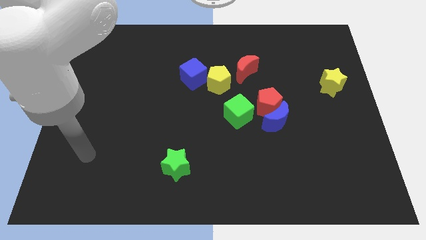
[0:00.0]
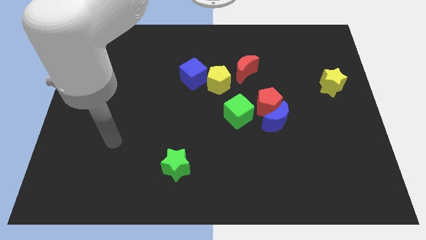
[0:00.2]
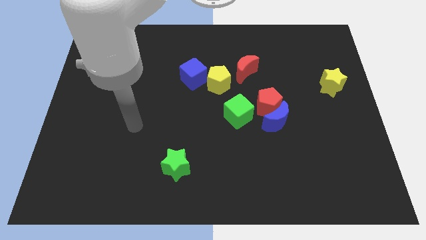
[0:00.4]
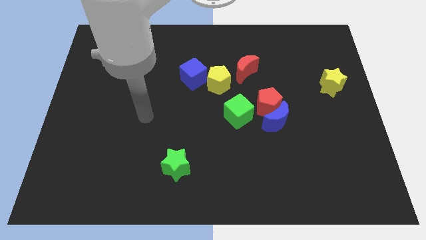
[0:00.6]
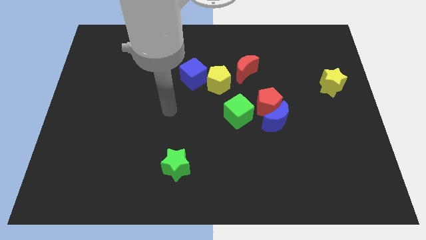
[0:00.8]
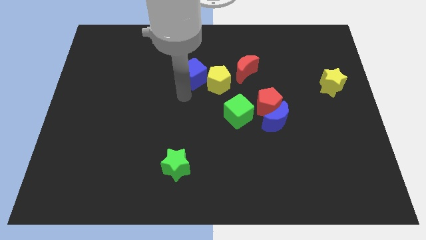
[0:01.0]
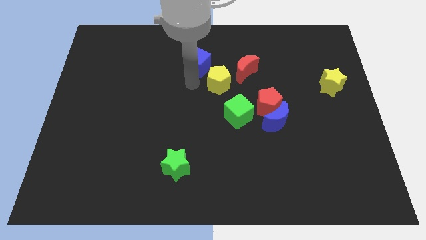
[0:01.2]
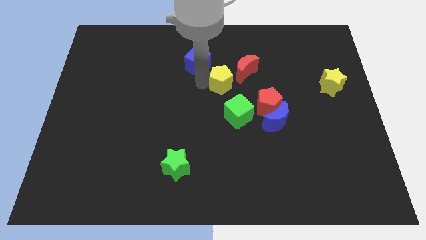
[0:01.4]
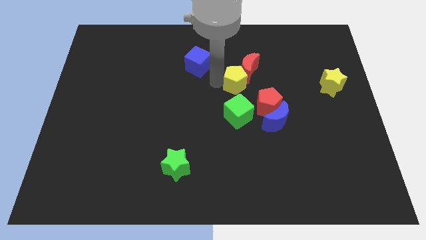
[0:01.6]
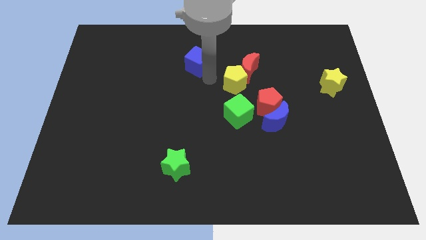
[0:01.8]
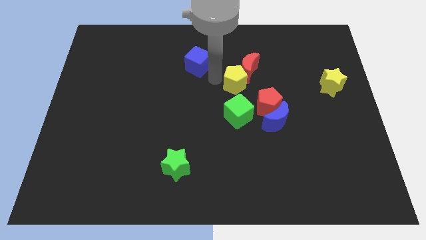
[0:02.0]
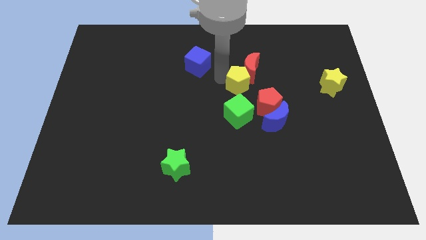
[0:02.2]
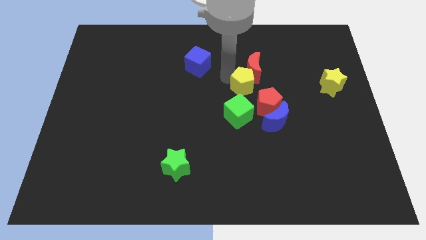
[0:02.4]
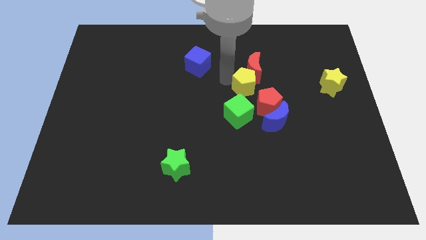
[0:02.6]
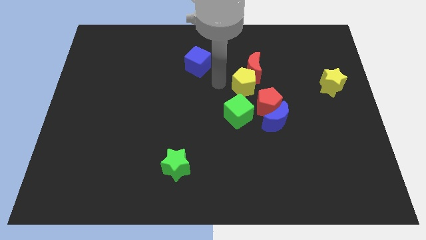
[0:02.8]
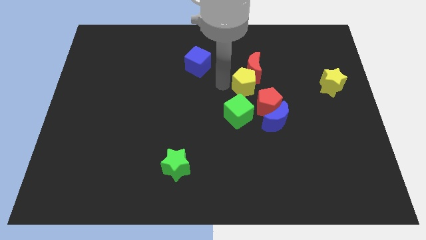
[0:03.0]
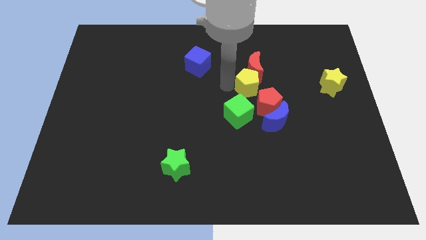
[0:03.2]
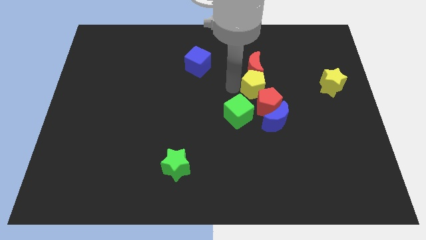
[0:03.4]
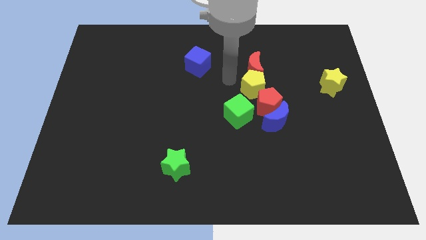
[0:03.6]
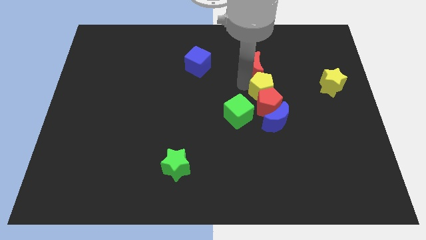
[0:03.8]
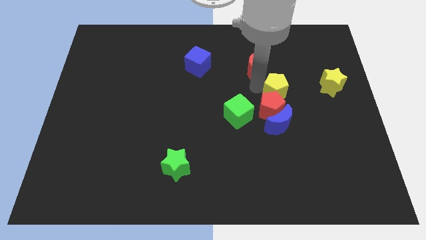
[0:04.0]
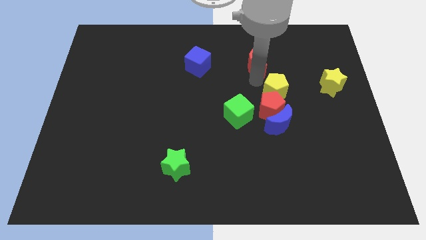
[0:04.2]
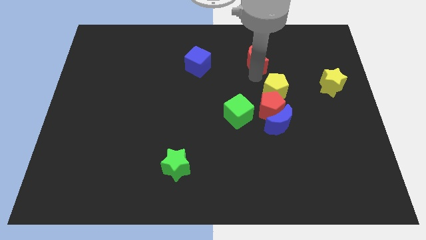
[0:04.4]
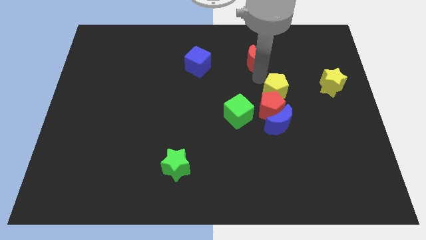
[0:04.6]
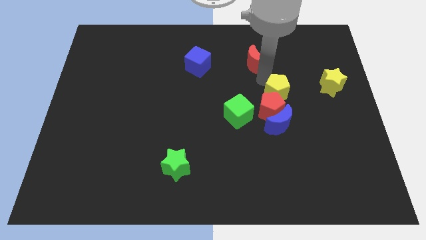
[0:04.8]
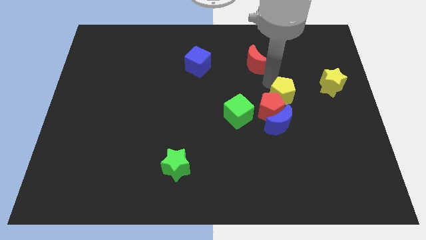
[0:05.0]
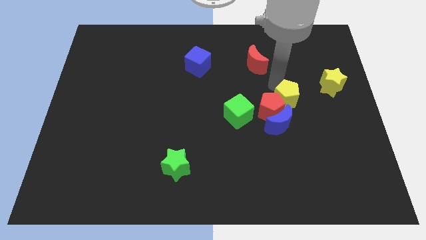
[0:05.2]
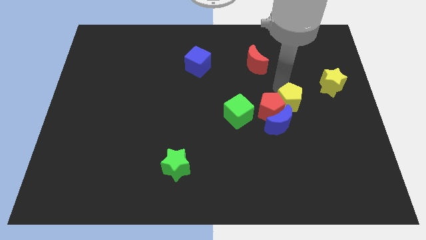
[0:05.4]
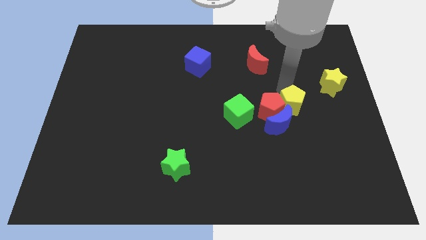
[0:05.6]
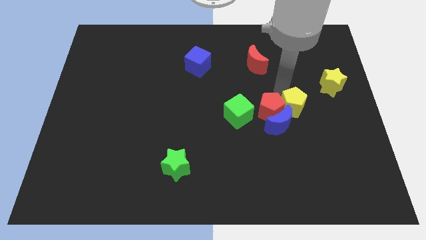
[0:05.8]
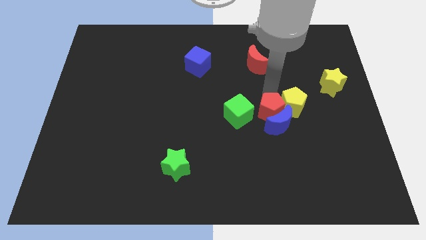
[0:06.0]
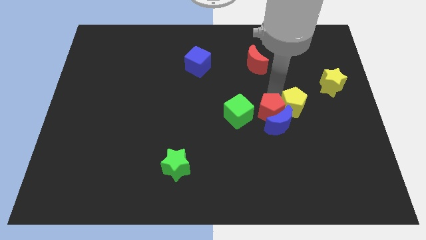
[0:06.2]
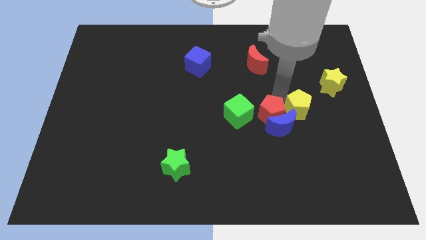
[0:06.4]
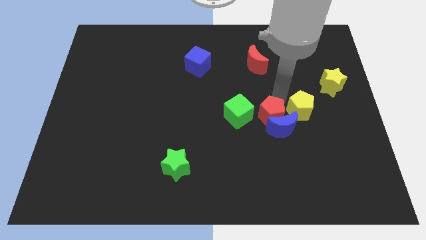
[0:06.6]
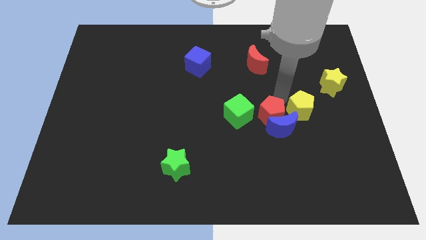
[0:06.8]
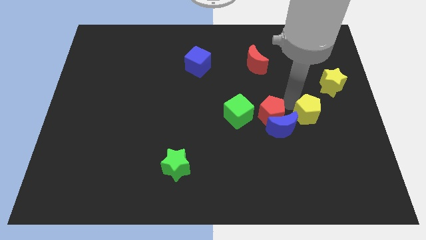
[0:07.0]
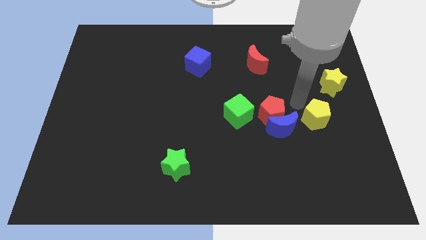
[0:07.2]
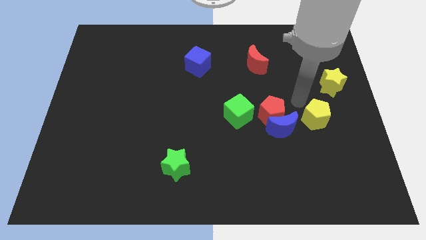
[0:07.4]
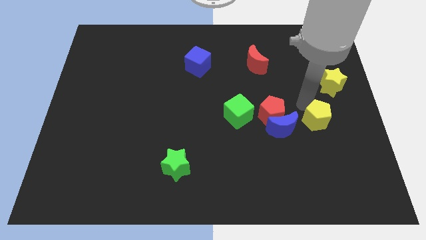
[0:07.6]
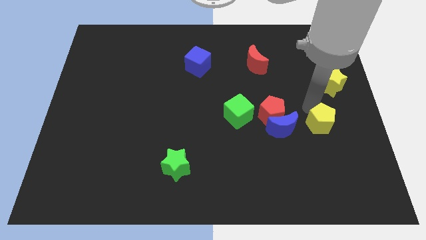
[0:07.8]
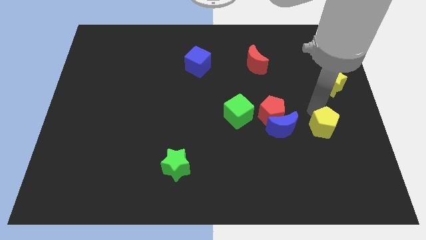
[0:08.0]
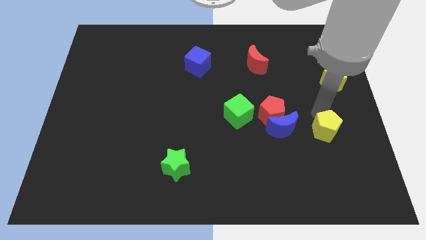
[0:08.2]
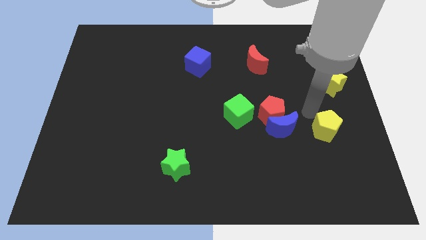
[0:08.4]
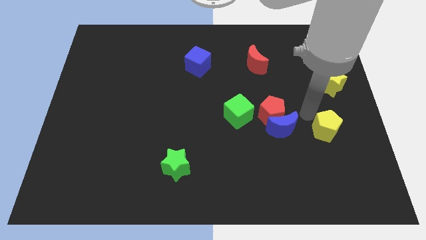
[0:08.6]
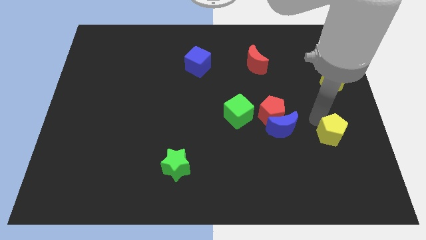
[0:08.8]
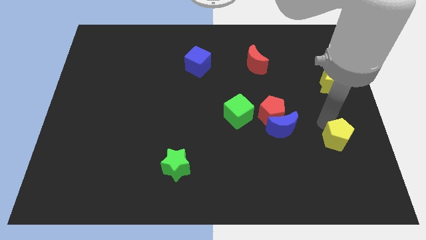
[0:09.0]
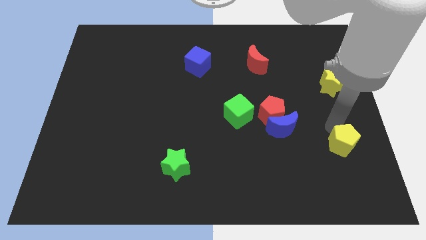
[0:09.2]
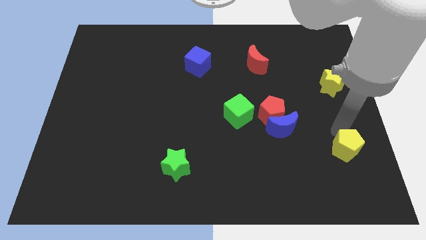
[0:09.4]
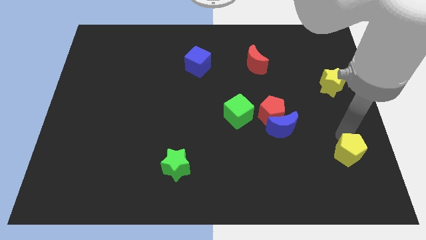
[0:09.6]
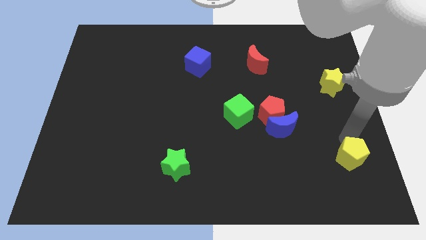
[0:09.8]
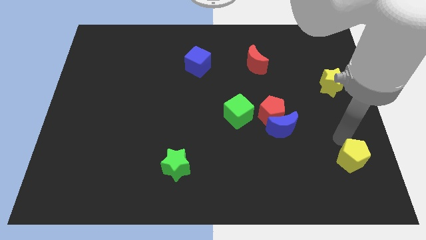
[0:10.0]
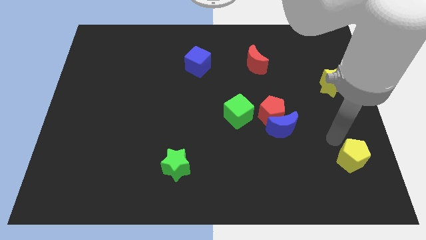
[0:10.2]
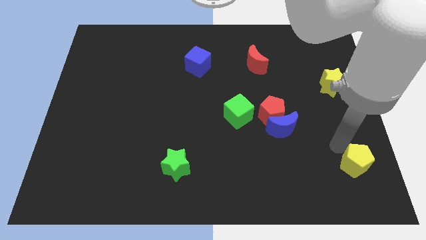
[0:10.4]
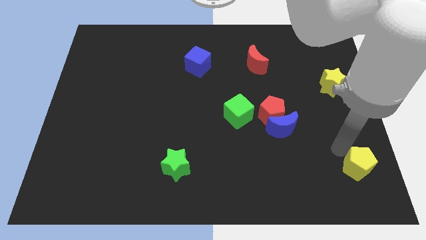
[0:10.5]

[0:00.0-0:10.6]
slide the yellow pentagon to the bottom right corner

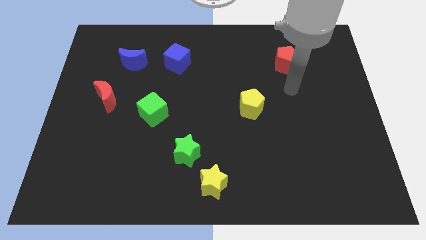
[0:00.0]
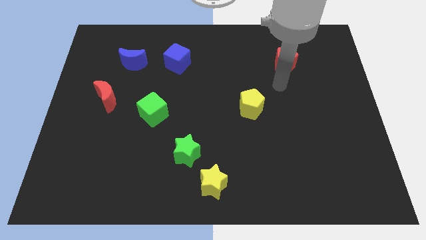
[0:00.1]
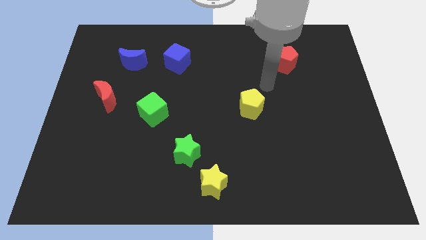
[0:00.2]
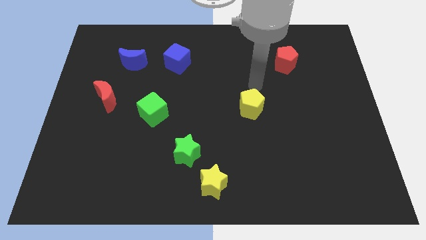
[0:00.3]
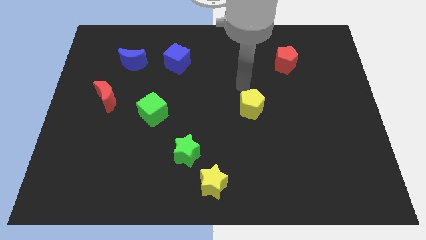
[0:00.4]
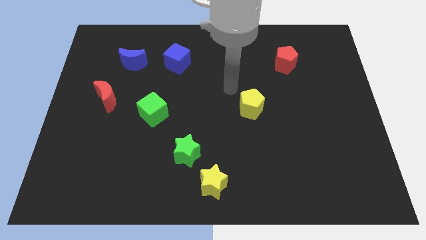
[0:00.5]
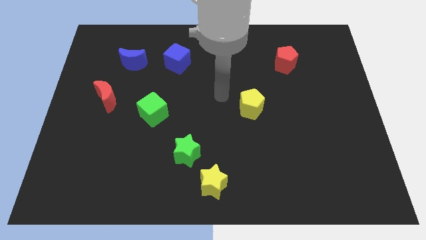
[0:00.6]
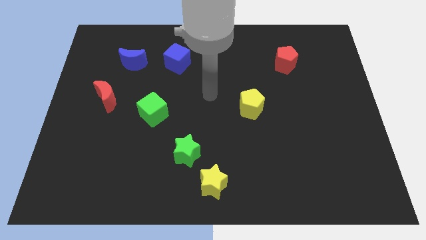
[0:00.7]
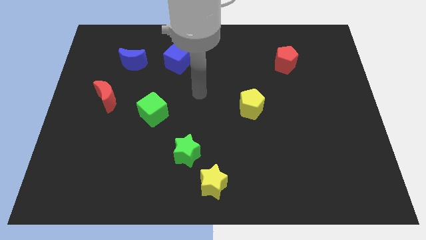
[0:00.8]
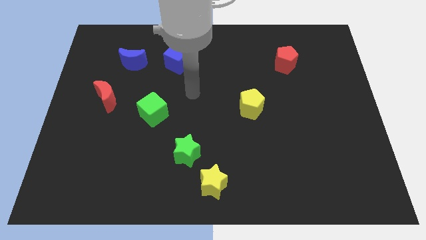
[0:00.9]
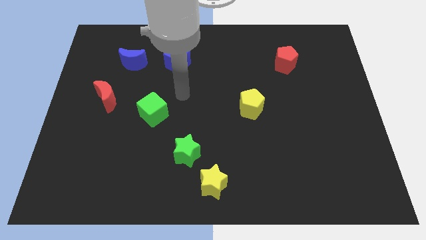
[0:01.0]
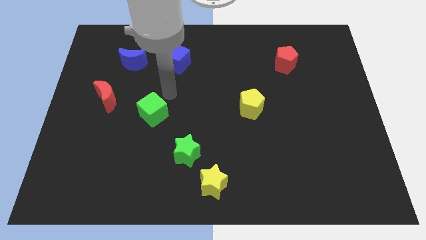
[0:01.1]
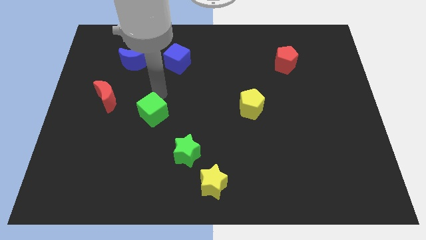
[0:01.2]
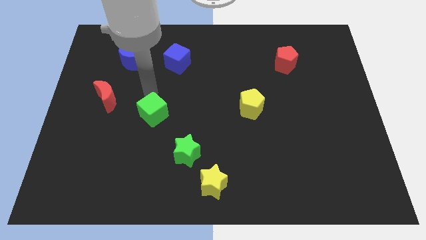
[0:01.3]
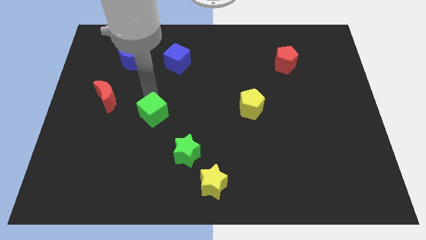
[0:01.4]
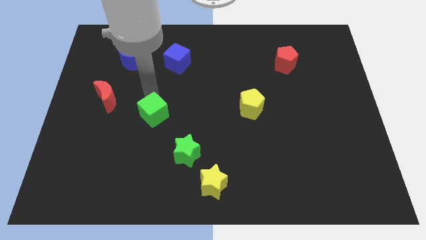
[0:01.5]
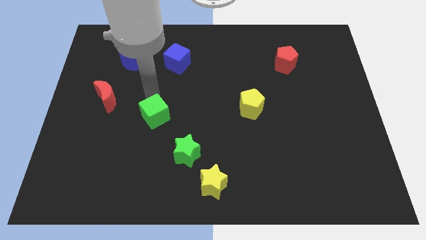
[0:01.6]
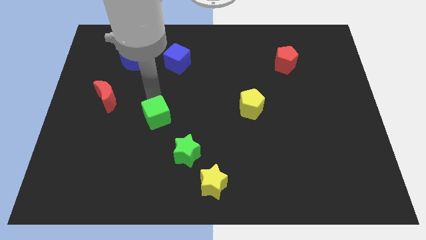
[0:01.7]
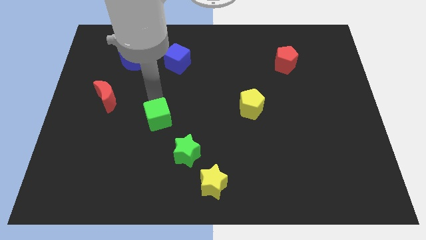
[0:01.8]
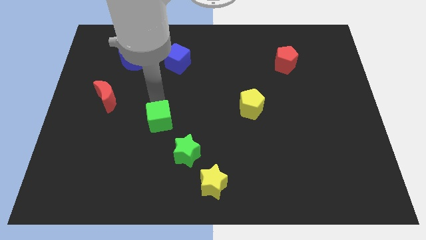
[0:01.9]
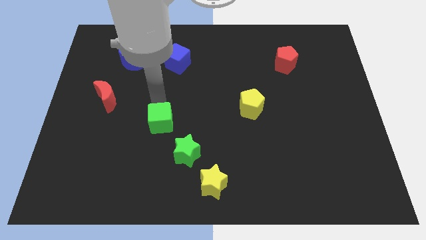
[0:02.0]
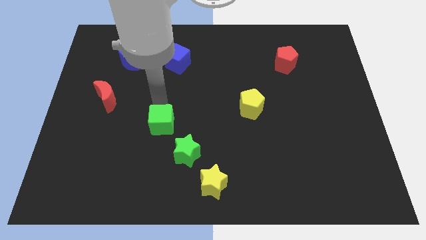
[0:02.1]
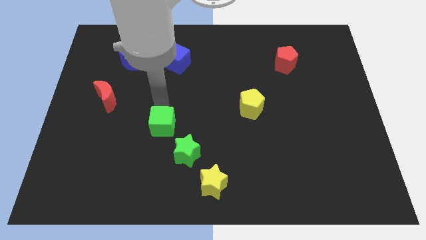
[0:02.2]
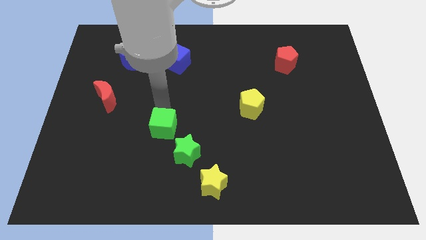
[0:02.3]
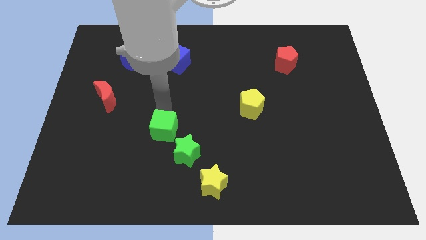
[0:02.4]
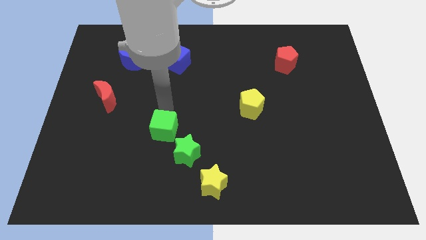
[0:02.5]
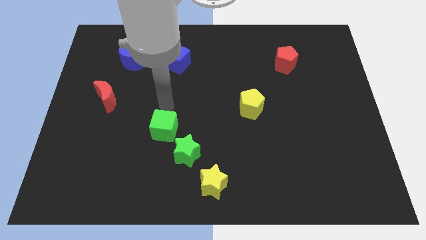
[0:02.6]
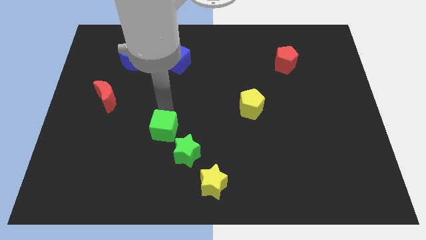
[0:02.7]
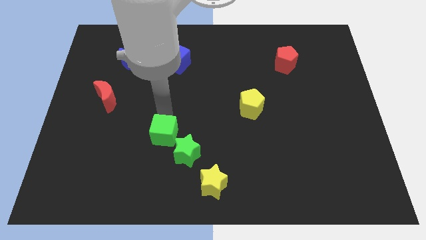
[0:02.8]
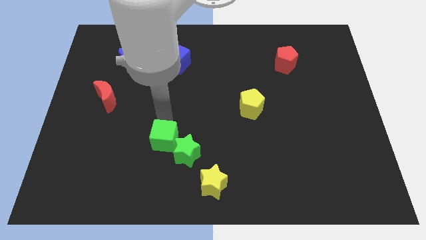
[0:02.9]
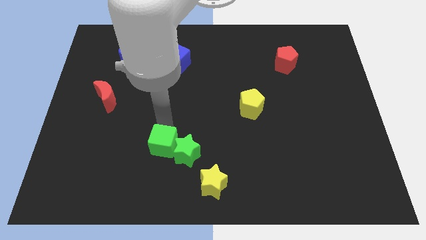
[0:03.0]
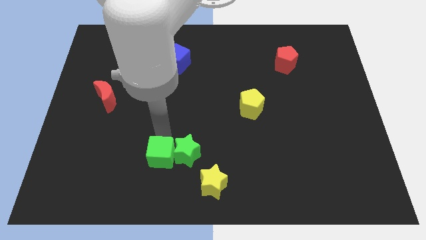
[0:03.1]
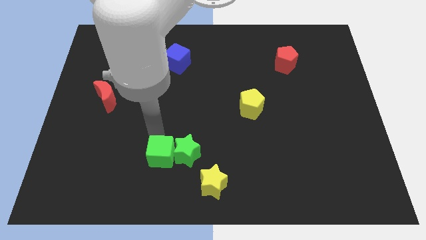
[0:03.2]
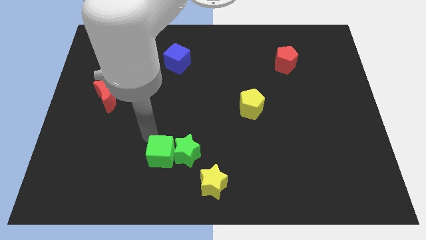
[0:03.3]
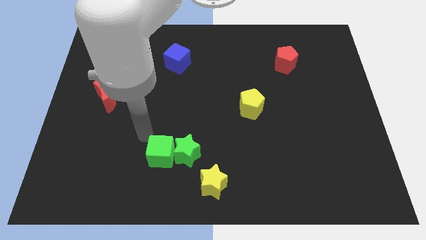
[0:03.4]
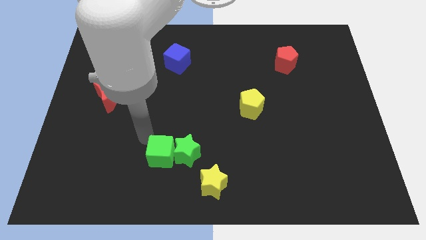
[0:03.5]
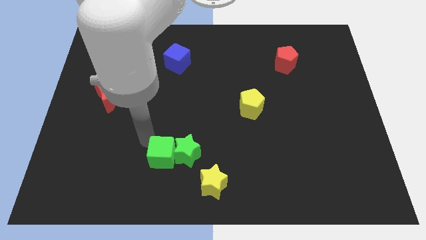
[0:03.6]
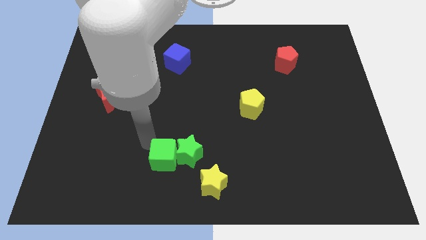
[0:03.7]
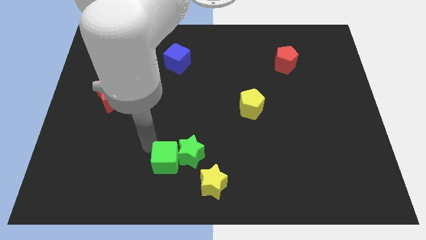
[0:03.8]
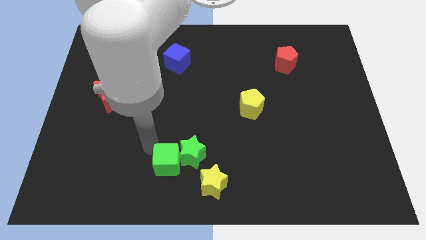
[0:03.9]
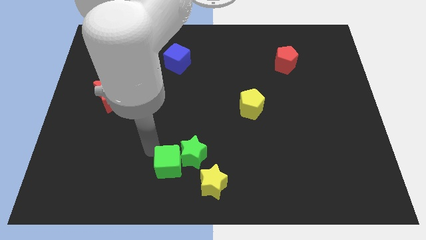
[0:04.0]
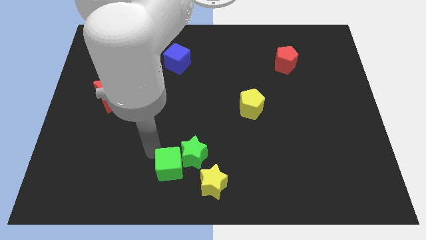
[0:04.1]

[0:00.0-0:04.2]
put the green cube to the bottom
